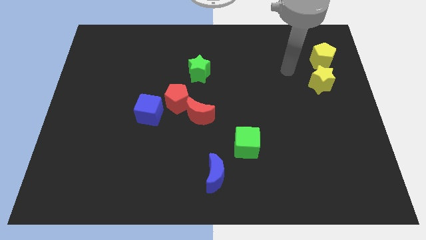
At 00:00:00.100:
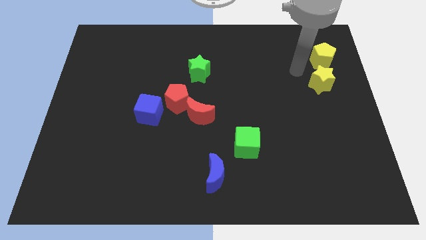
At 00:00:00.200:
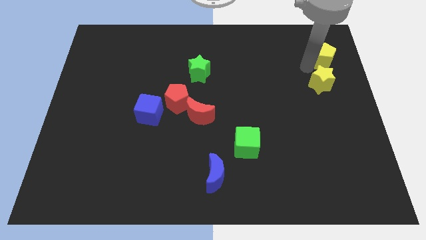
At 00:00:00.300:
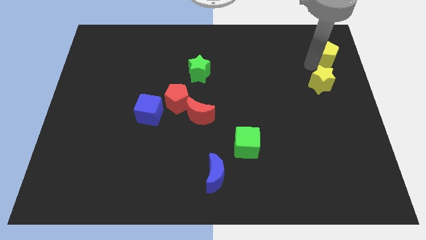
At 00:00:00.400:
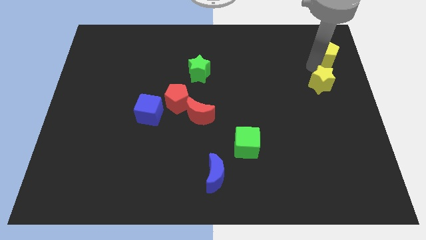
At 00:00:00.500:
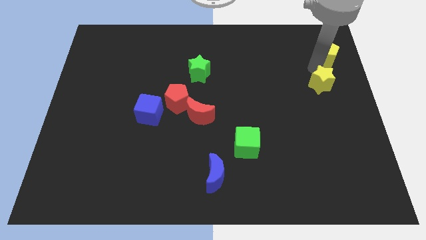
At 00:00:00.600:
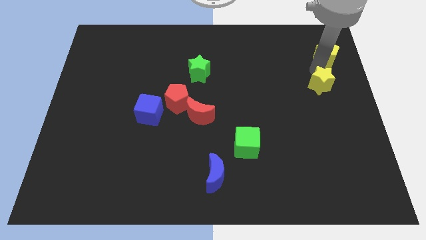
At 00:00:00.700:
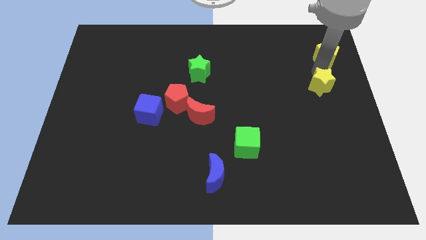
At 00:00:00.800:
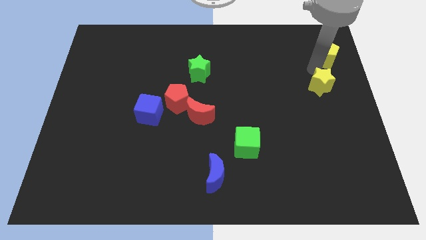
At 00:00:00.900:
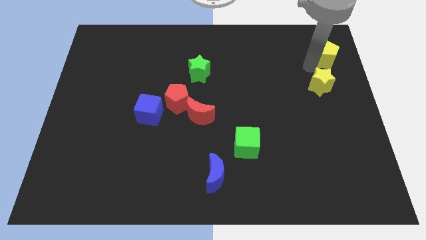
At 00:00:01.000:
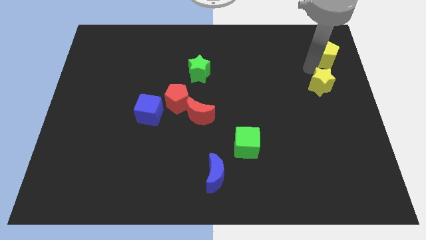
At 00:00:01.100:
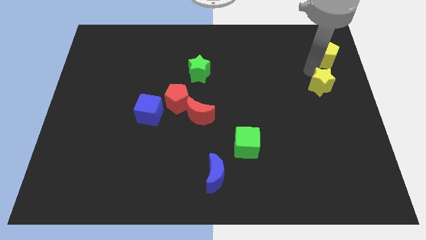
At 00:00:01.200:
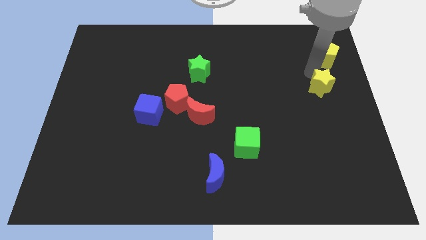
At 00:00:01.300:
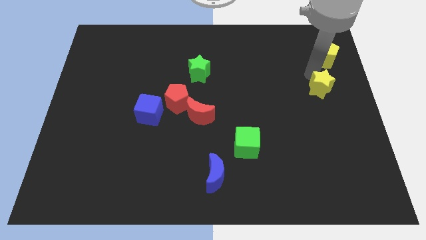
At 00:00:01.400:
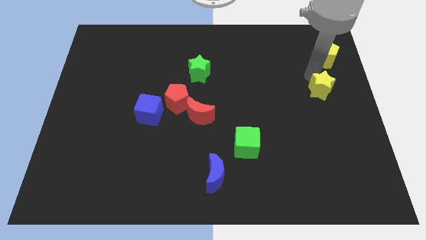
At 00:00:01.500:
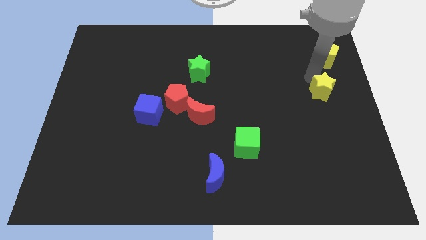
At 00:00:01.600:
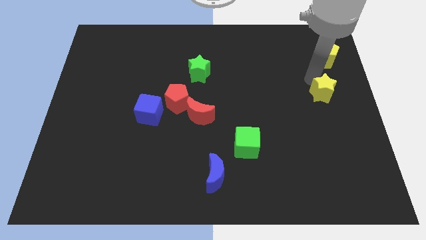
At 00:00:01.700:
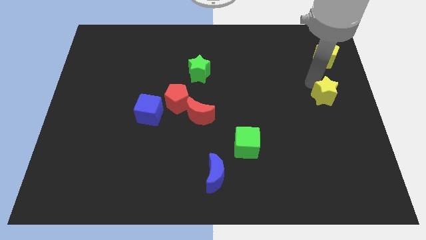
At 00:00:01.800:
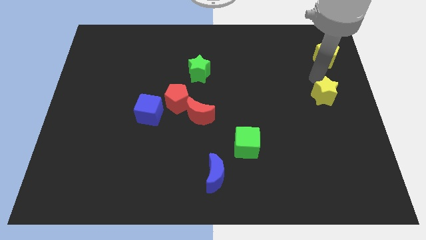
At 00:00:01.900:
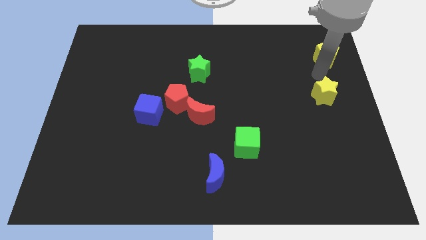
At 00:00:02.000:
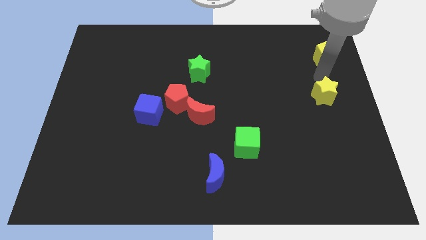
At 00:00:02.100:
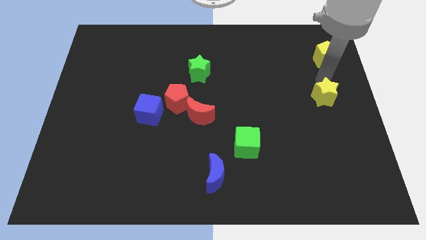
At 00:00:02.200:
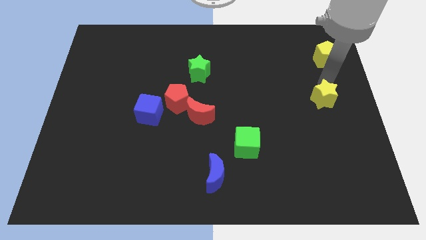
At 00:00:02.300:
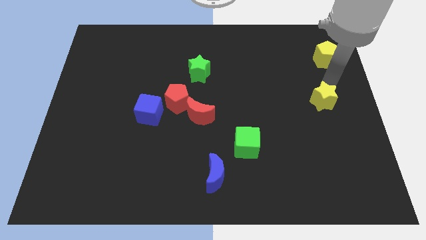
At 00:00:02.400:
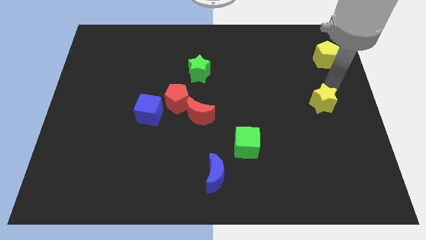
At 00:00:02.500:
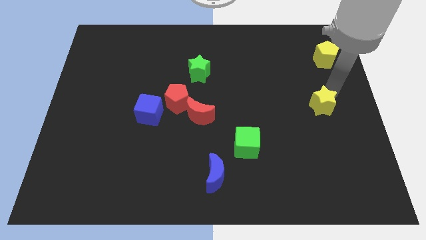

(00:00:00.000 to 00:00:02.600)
move the yellow star downwards slightly

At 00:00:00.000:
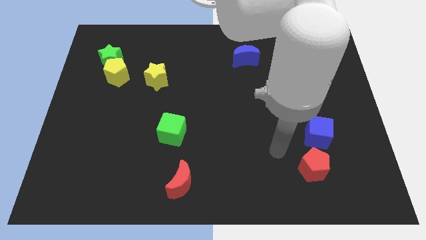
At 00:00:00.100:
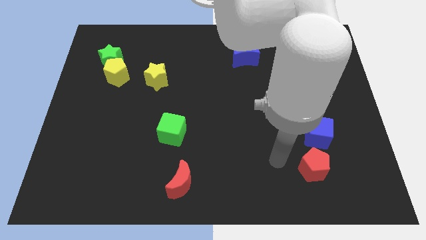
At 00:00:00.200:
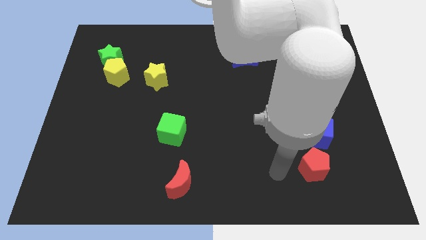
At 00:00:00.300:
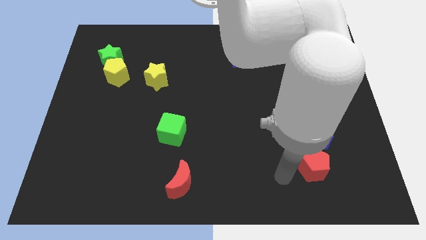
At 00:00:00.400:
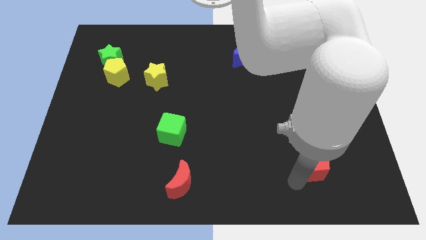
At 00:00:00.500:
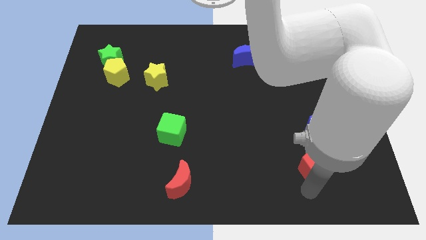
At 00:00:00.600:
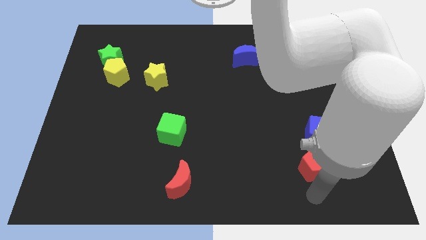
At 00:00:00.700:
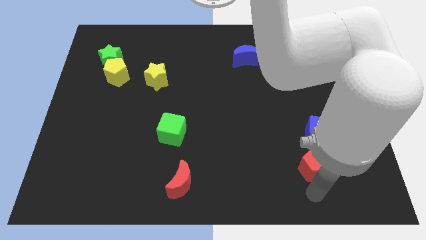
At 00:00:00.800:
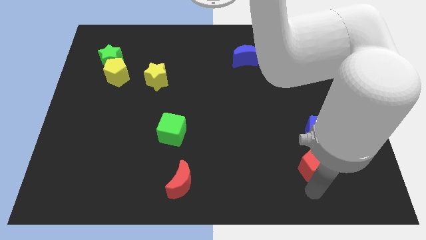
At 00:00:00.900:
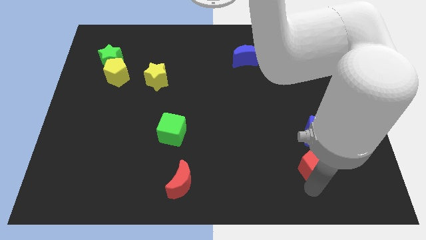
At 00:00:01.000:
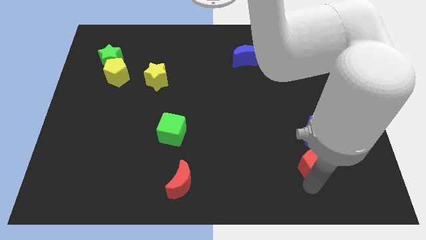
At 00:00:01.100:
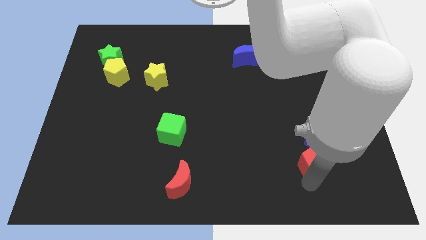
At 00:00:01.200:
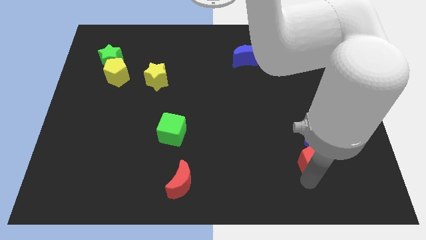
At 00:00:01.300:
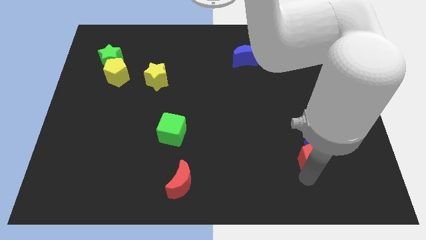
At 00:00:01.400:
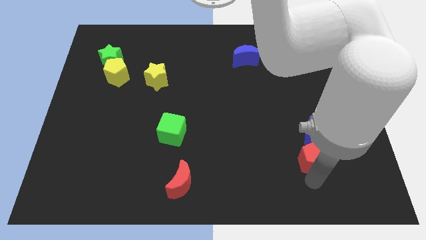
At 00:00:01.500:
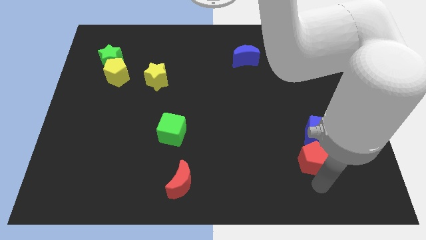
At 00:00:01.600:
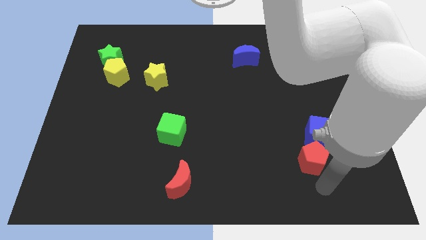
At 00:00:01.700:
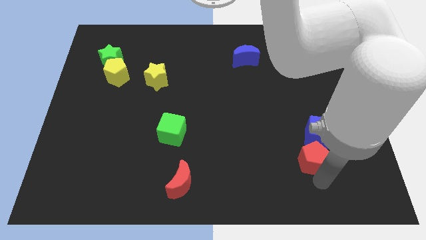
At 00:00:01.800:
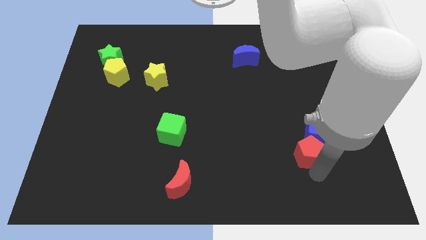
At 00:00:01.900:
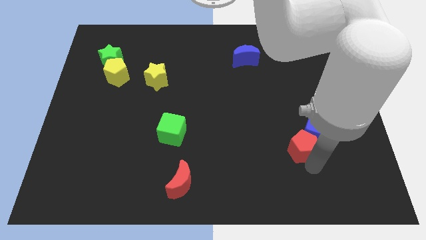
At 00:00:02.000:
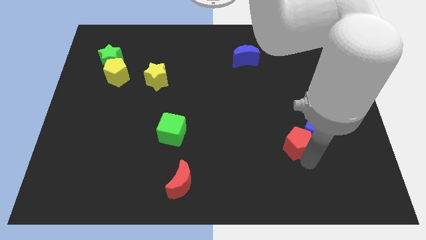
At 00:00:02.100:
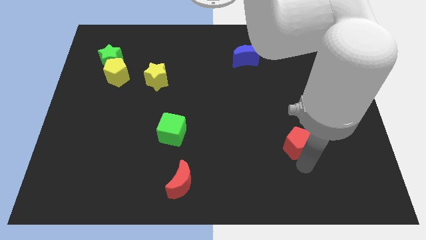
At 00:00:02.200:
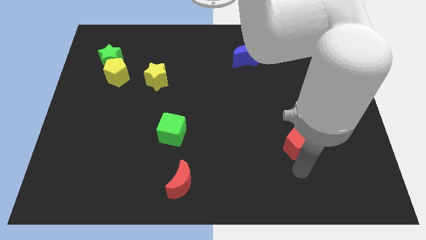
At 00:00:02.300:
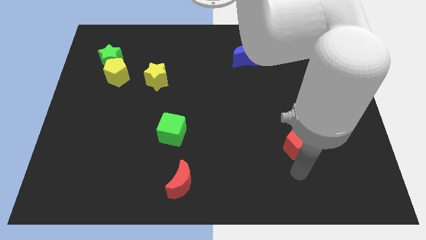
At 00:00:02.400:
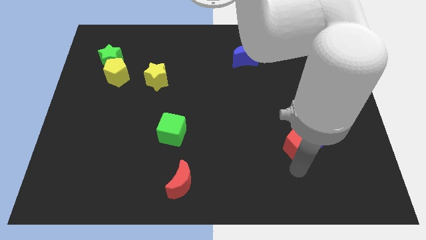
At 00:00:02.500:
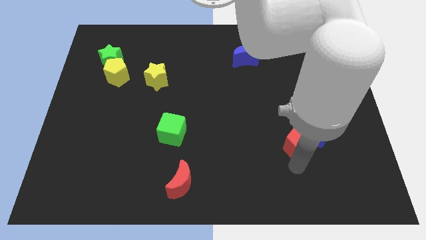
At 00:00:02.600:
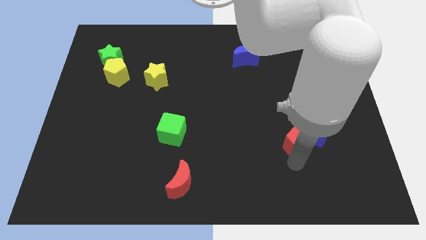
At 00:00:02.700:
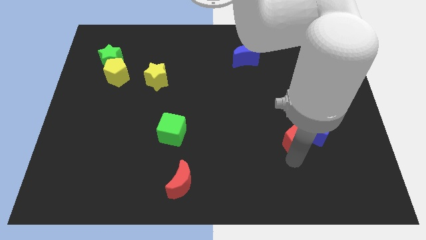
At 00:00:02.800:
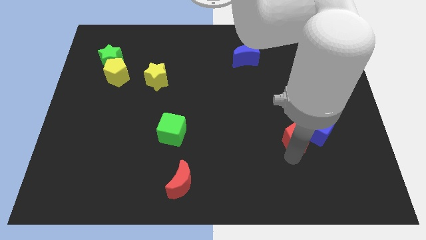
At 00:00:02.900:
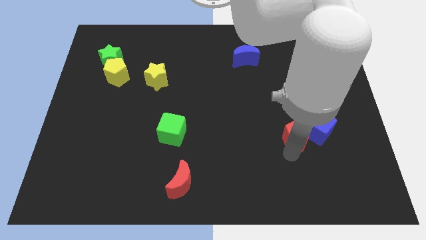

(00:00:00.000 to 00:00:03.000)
push the red pentagon up somewhat

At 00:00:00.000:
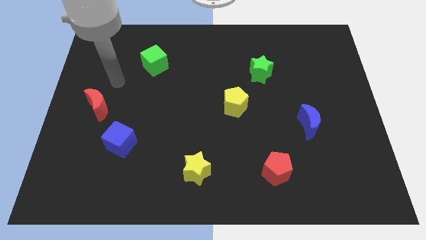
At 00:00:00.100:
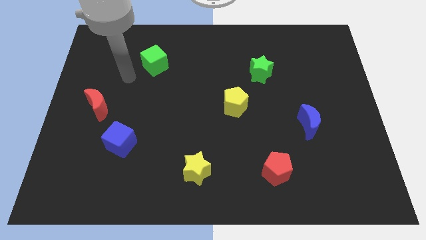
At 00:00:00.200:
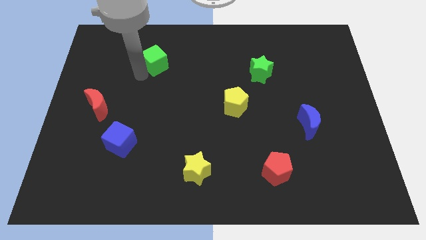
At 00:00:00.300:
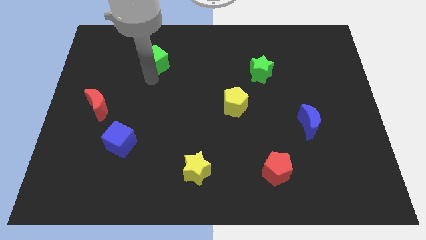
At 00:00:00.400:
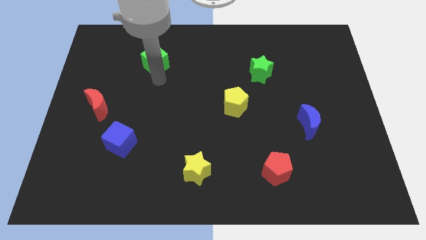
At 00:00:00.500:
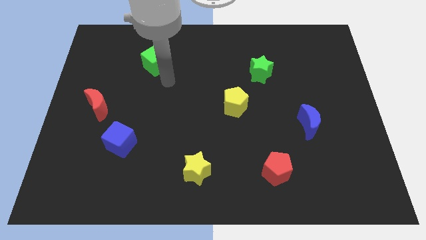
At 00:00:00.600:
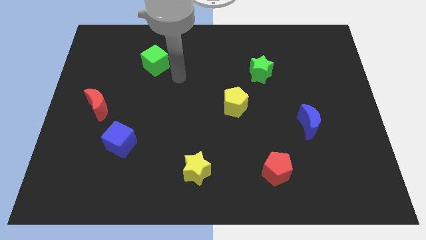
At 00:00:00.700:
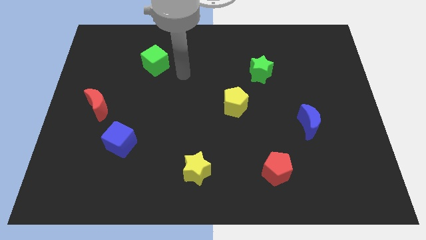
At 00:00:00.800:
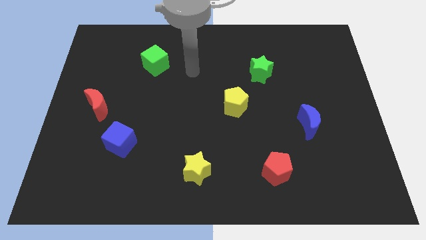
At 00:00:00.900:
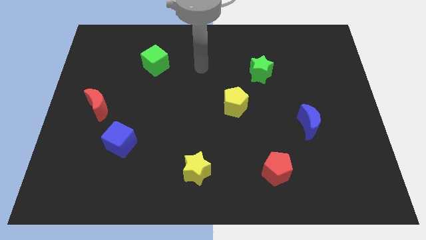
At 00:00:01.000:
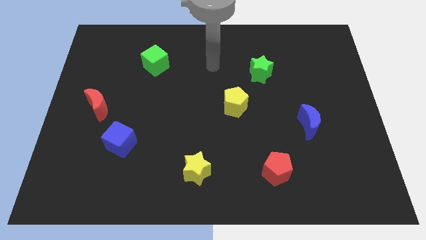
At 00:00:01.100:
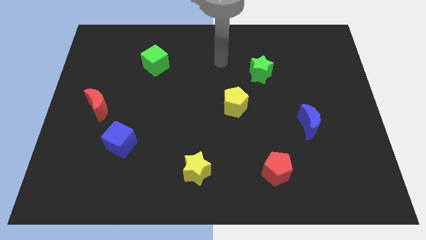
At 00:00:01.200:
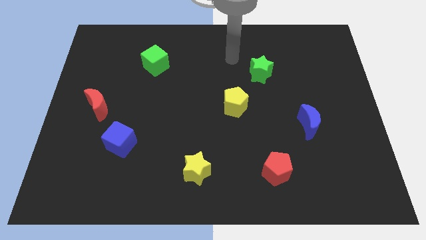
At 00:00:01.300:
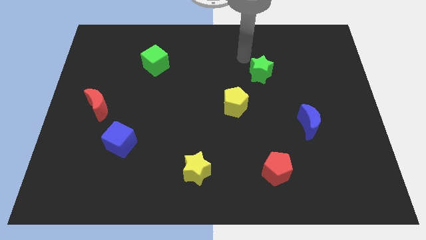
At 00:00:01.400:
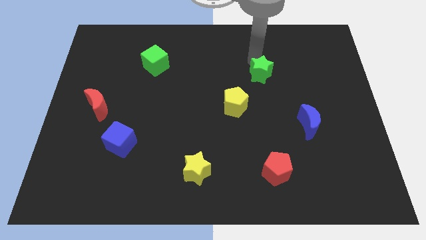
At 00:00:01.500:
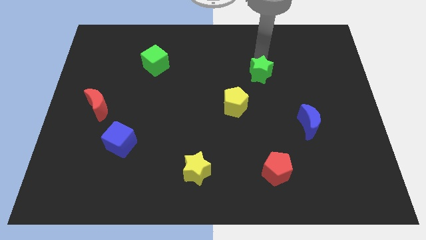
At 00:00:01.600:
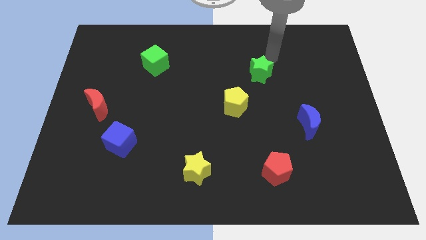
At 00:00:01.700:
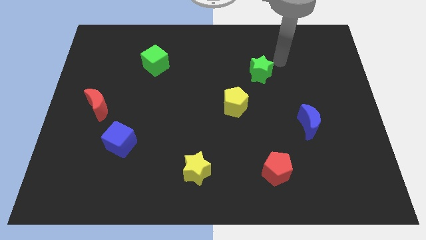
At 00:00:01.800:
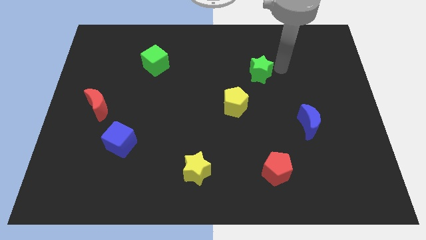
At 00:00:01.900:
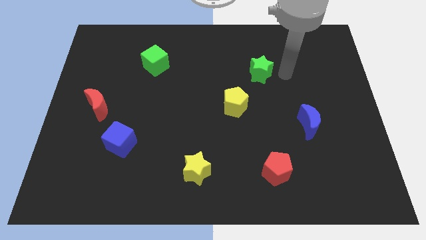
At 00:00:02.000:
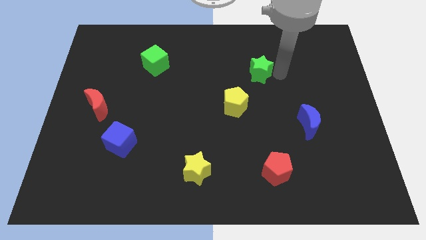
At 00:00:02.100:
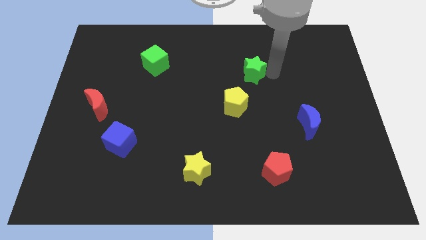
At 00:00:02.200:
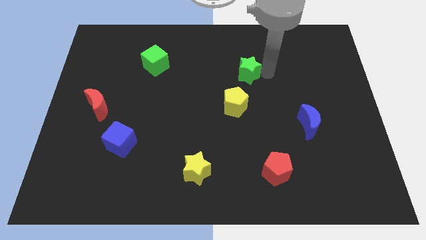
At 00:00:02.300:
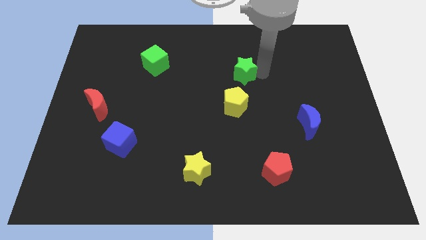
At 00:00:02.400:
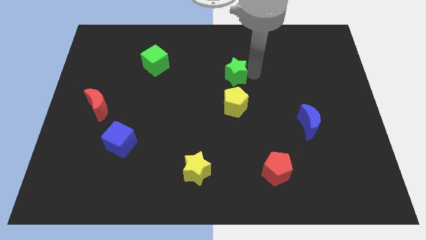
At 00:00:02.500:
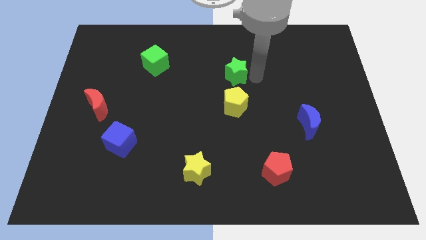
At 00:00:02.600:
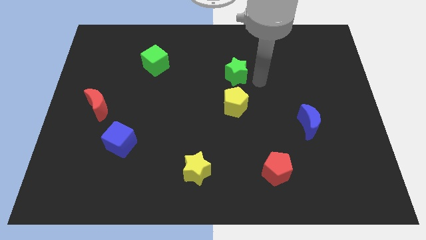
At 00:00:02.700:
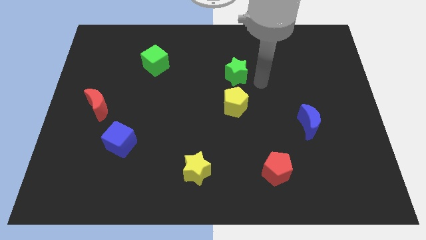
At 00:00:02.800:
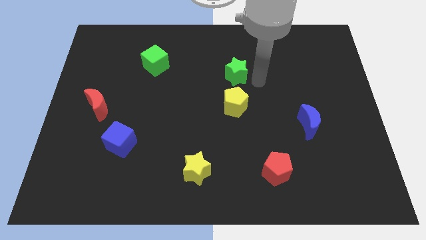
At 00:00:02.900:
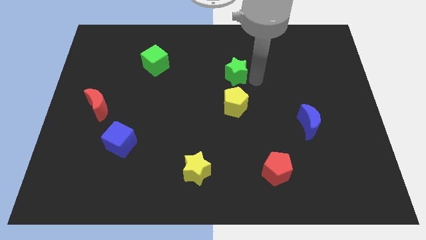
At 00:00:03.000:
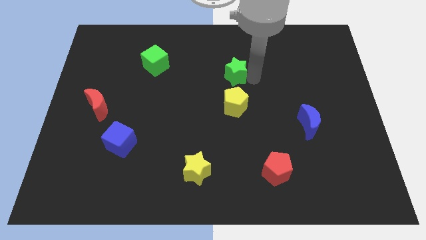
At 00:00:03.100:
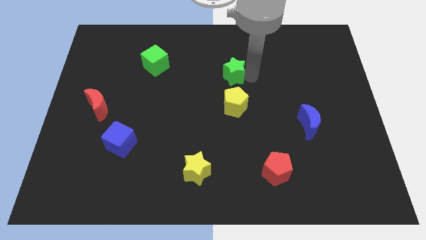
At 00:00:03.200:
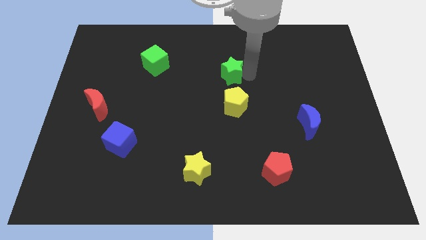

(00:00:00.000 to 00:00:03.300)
push the green star slightly to the left
